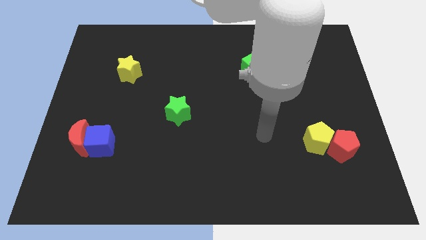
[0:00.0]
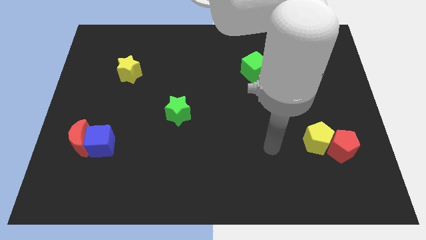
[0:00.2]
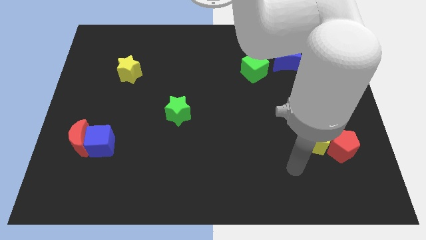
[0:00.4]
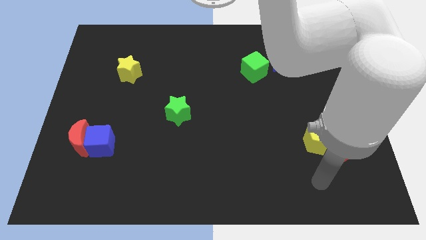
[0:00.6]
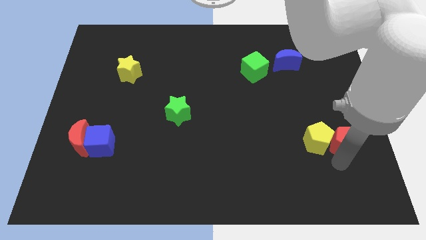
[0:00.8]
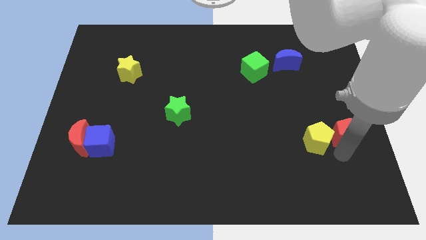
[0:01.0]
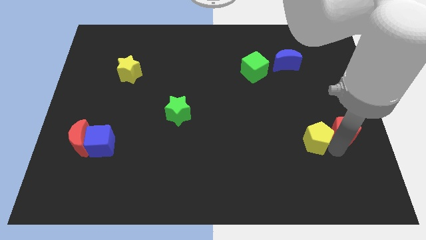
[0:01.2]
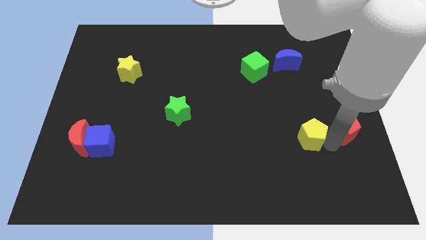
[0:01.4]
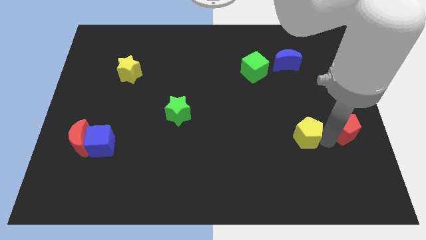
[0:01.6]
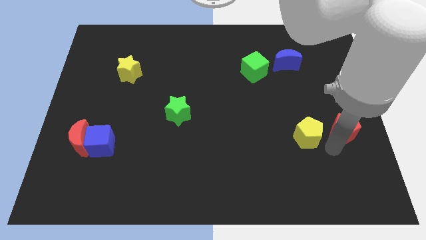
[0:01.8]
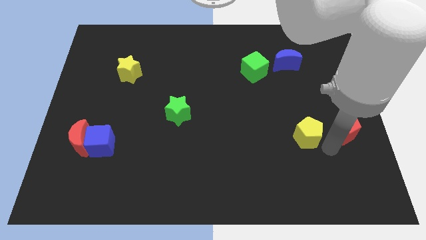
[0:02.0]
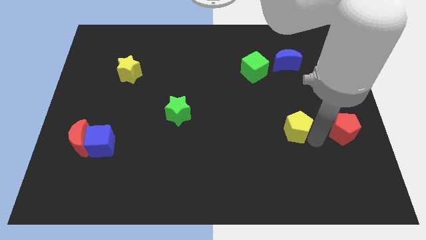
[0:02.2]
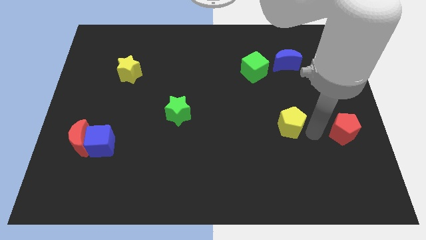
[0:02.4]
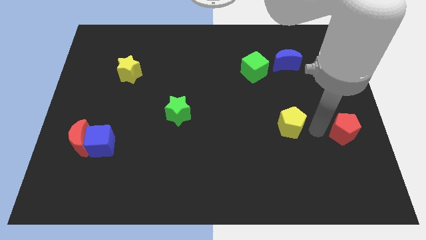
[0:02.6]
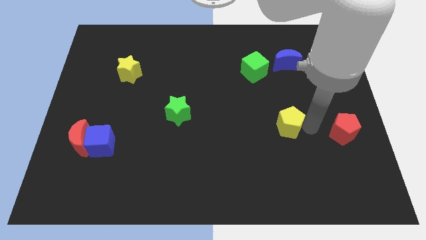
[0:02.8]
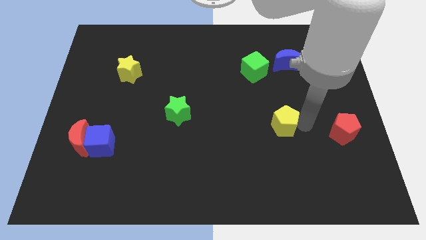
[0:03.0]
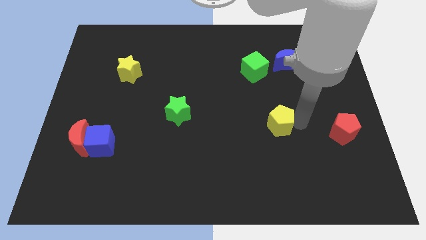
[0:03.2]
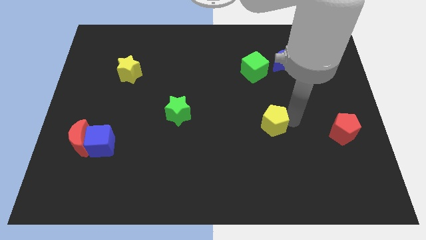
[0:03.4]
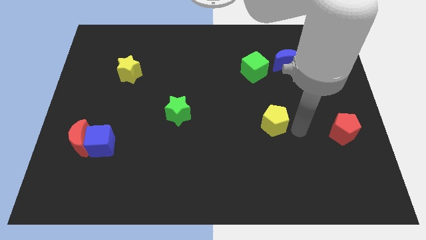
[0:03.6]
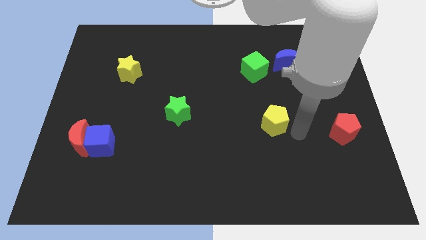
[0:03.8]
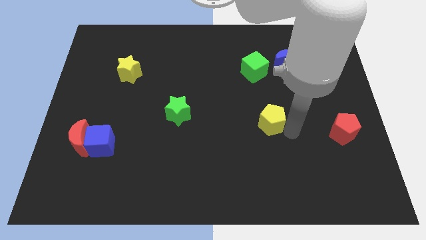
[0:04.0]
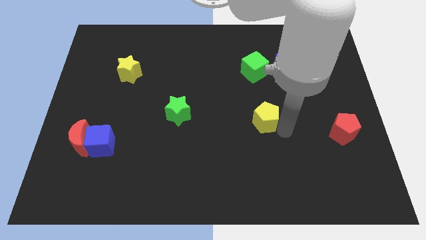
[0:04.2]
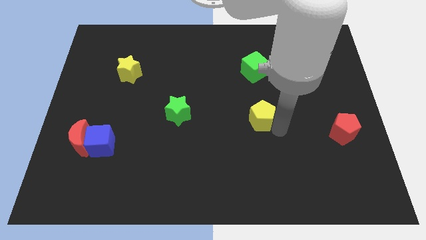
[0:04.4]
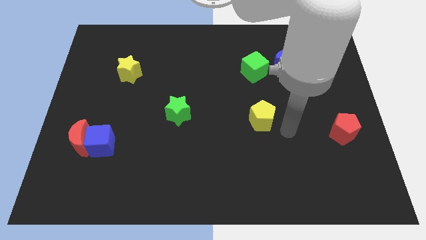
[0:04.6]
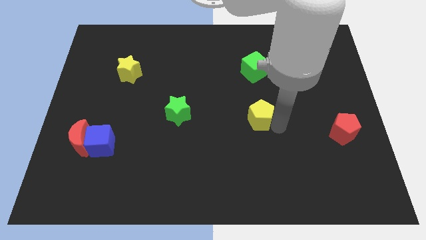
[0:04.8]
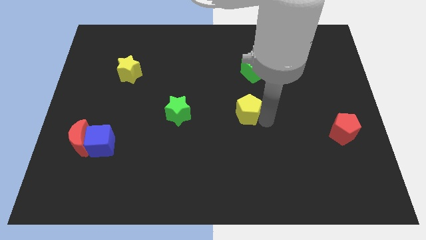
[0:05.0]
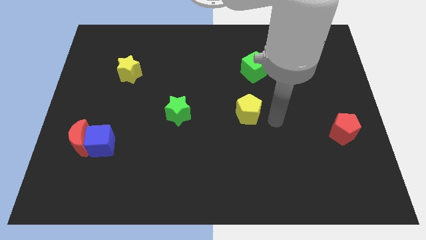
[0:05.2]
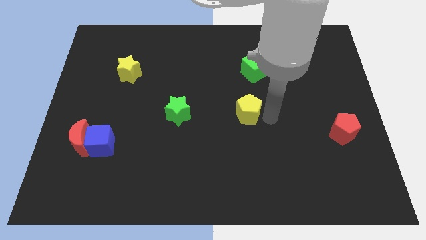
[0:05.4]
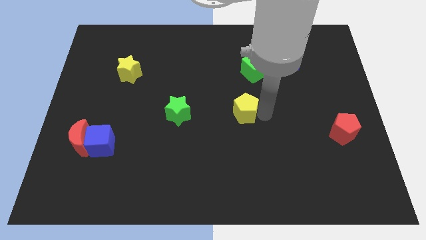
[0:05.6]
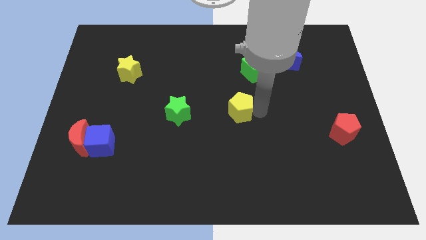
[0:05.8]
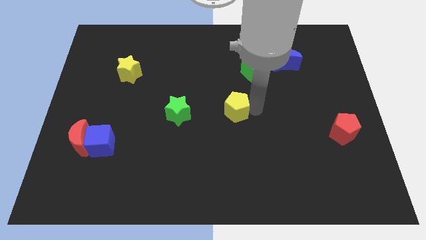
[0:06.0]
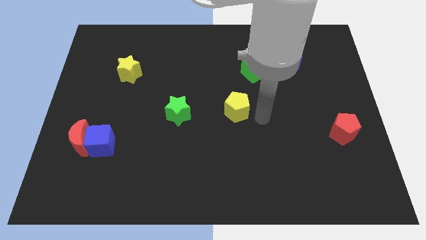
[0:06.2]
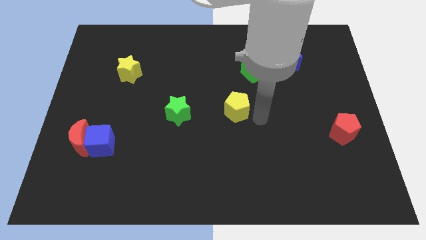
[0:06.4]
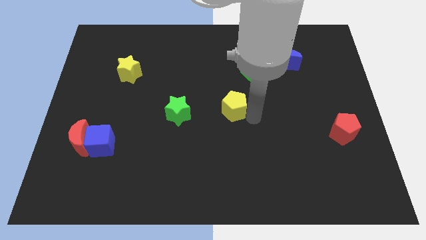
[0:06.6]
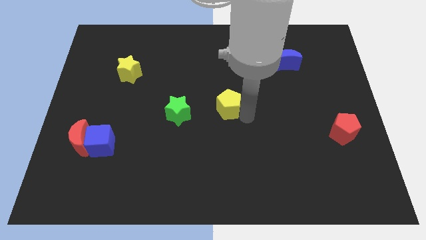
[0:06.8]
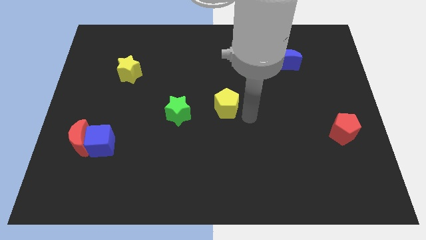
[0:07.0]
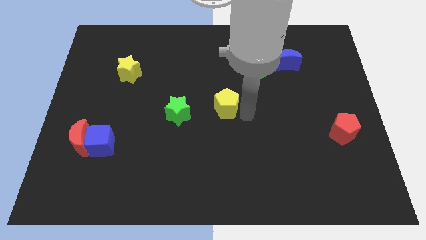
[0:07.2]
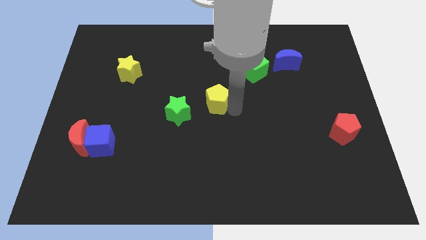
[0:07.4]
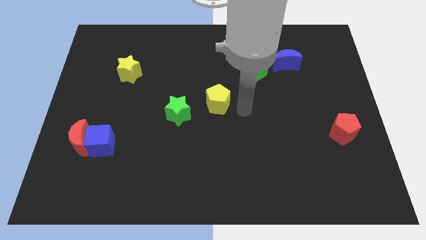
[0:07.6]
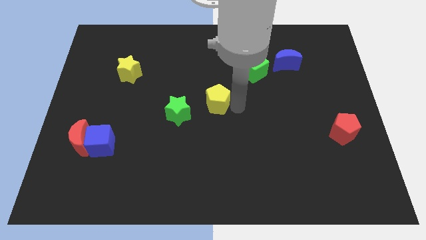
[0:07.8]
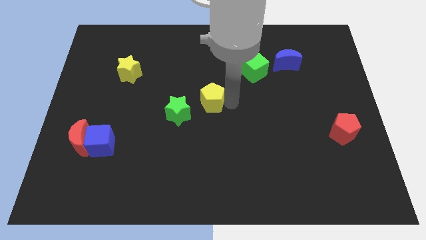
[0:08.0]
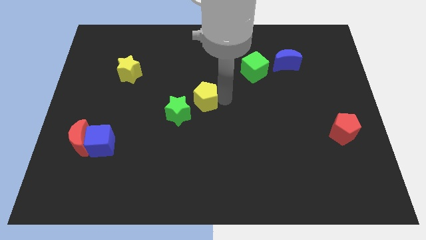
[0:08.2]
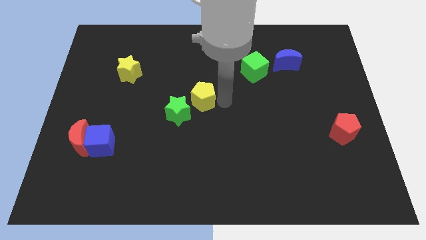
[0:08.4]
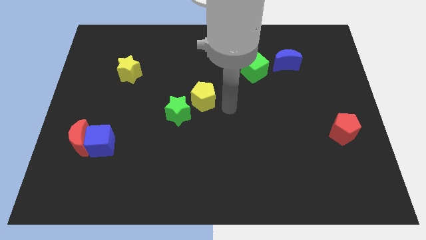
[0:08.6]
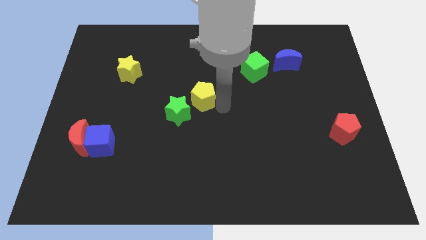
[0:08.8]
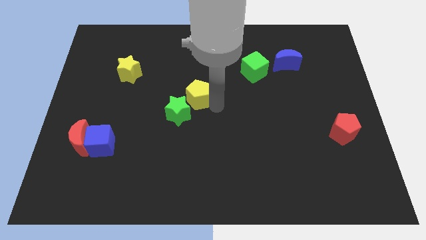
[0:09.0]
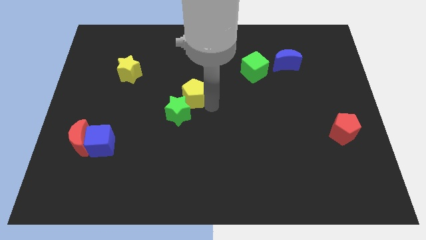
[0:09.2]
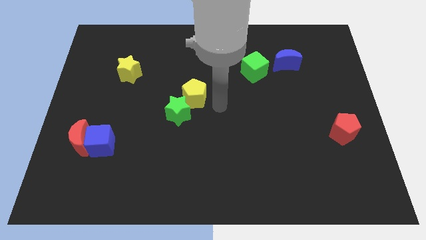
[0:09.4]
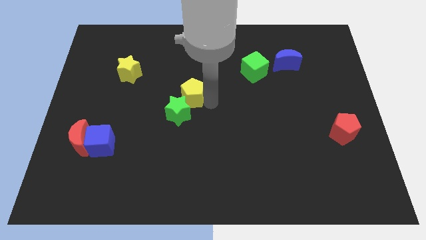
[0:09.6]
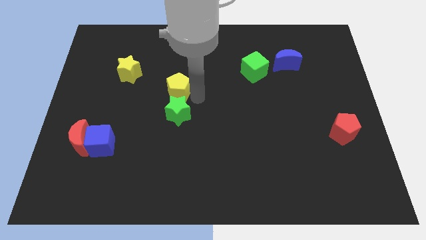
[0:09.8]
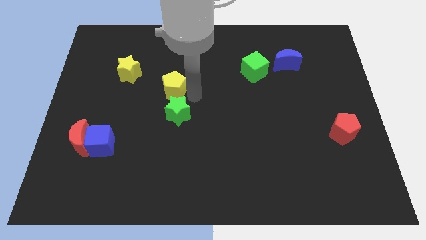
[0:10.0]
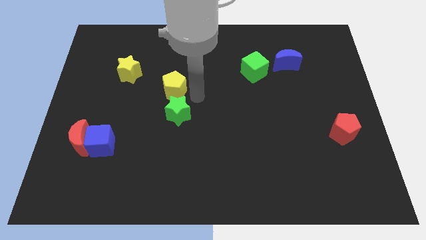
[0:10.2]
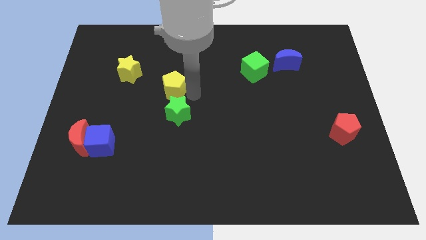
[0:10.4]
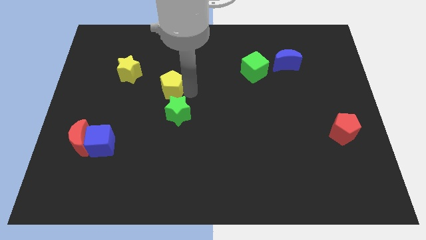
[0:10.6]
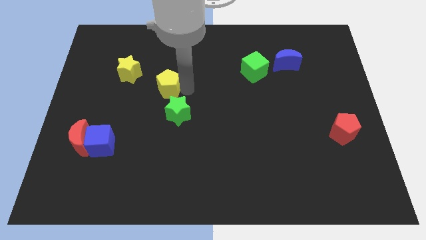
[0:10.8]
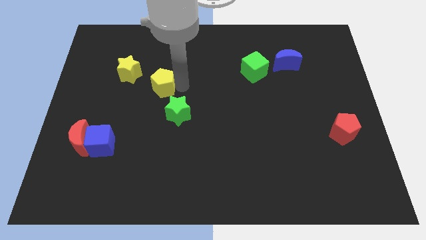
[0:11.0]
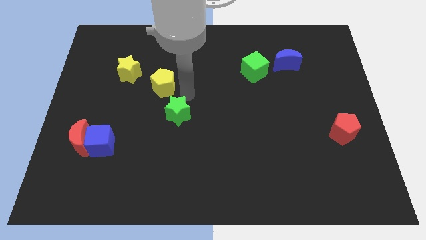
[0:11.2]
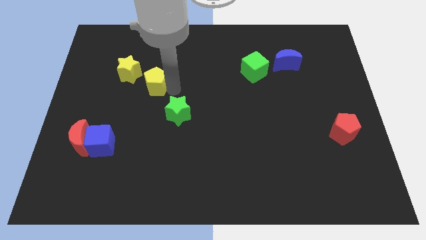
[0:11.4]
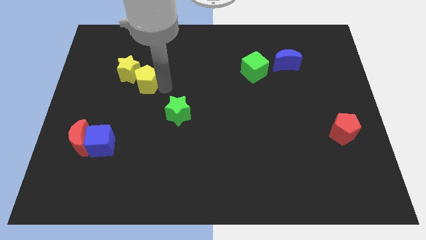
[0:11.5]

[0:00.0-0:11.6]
move the yellow pentagon towards the yellow star

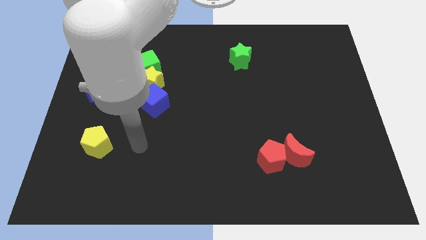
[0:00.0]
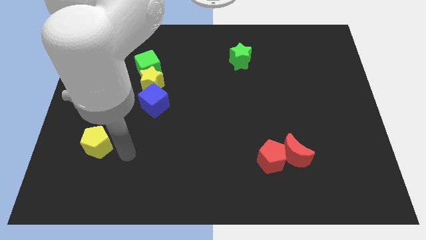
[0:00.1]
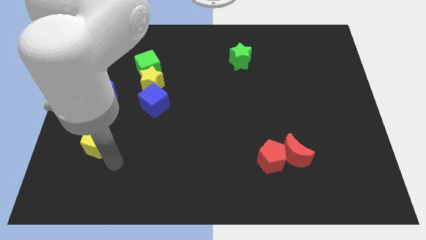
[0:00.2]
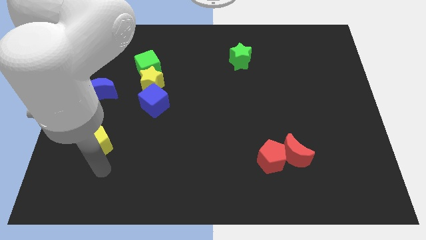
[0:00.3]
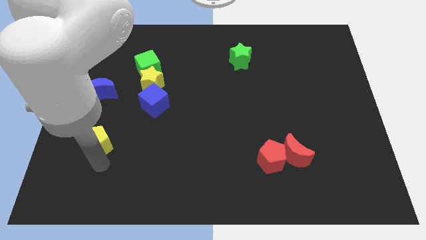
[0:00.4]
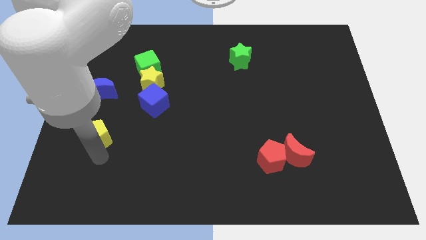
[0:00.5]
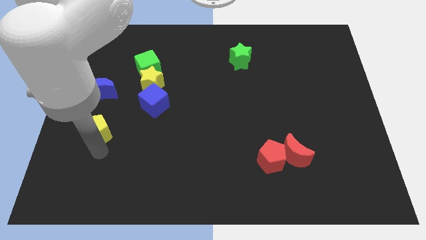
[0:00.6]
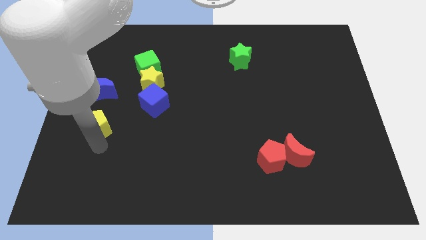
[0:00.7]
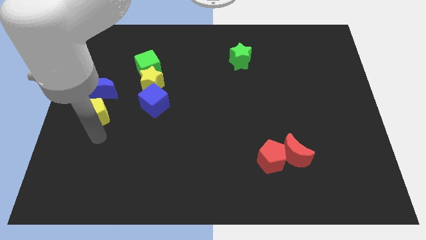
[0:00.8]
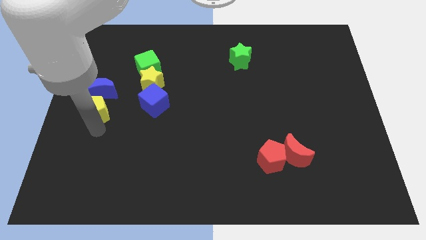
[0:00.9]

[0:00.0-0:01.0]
put the yellow pentagon next to the blue moon
